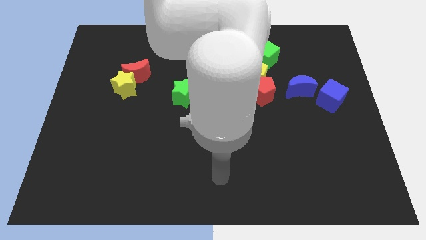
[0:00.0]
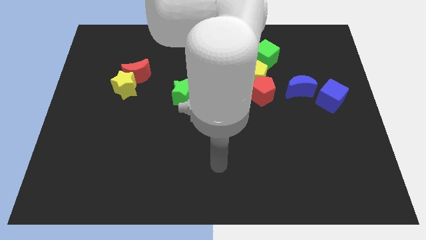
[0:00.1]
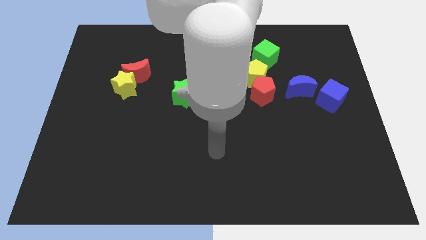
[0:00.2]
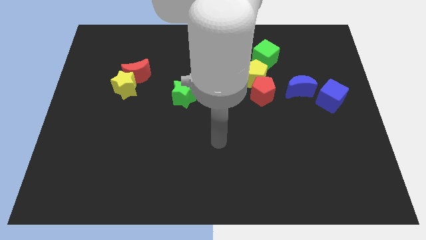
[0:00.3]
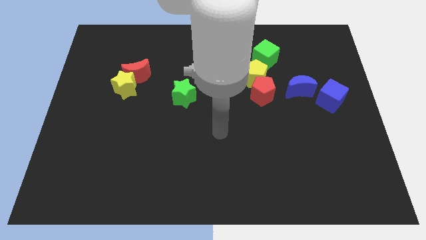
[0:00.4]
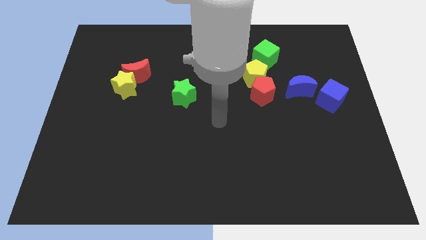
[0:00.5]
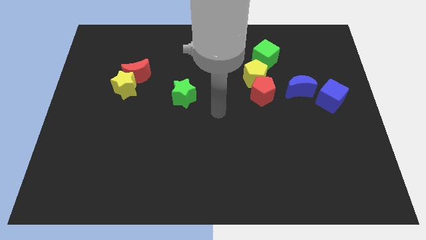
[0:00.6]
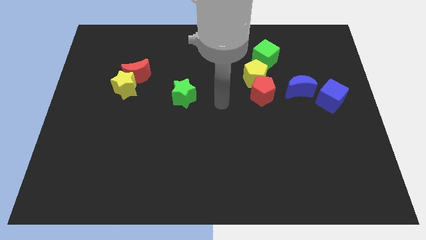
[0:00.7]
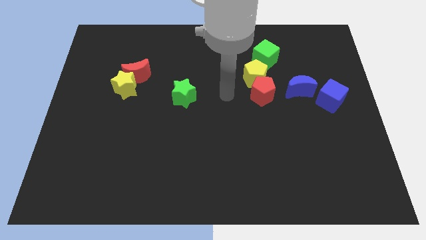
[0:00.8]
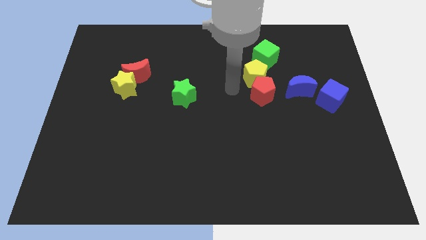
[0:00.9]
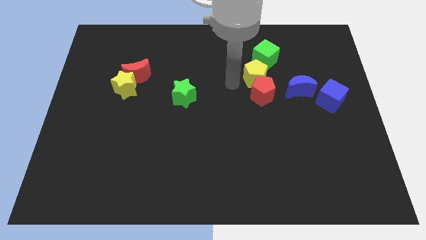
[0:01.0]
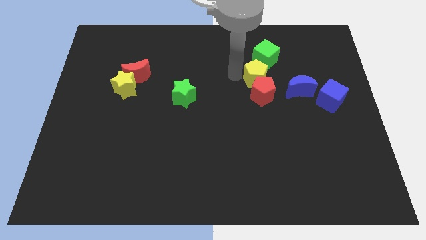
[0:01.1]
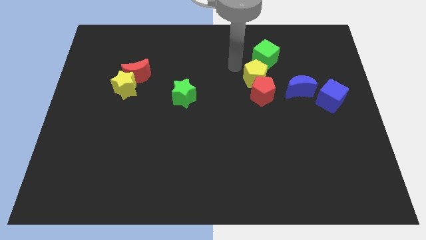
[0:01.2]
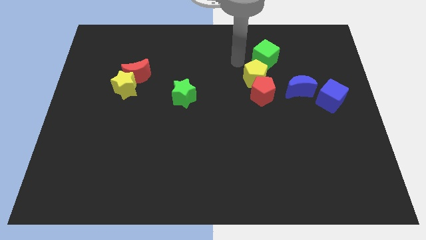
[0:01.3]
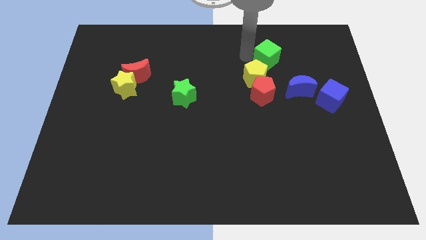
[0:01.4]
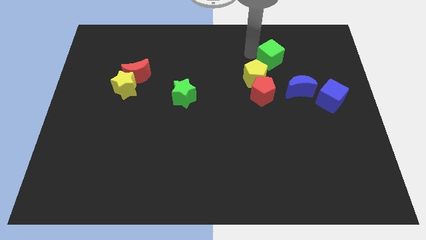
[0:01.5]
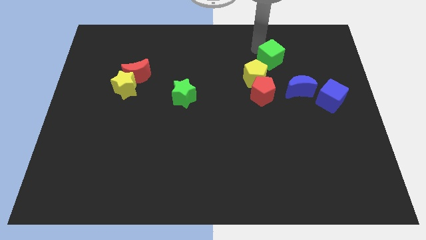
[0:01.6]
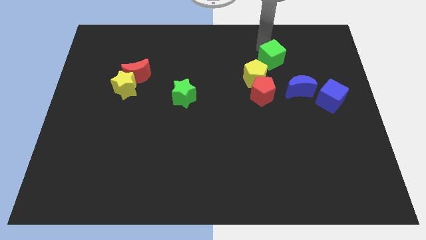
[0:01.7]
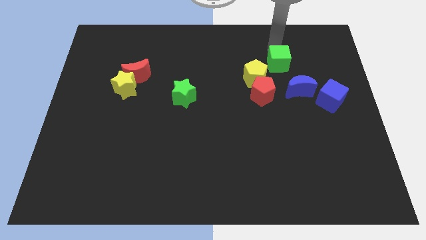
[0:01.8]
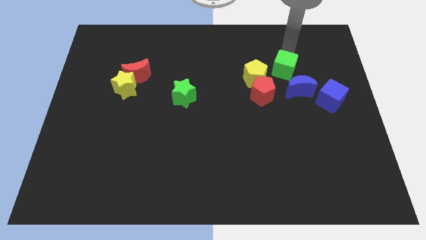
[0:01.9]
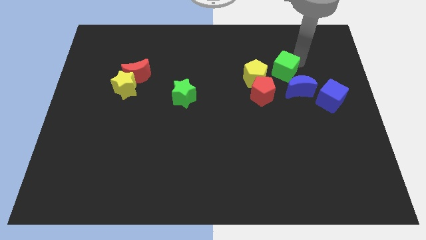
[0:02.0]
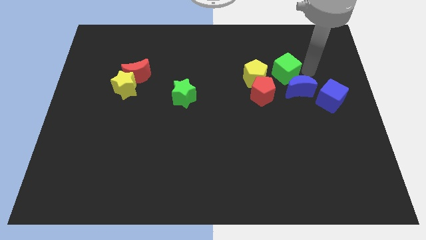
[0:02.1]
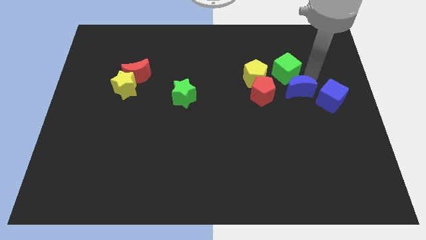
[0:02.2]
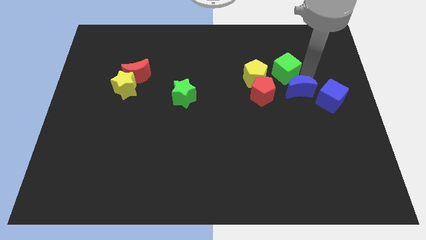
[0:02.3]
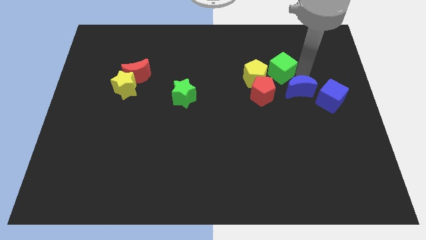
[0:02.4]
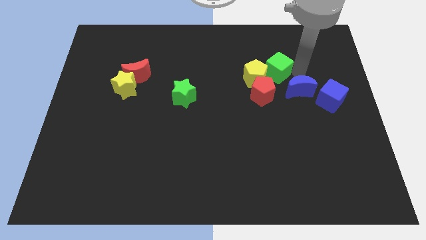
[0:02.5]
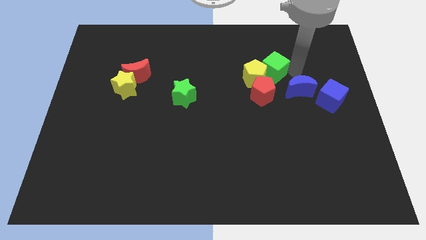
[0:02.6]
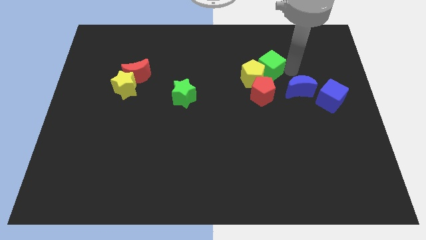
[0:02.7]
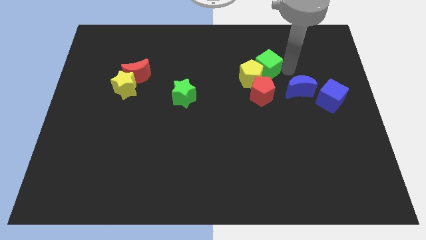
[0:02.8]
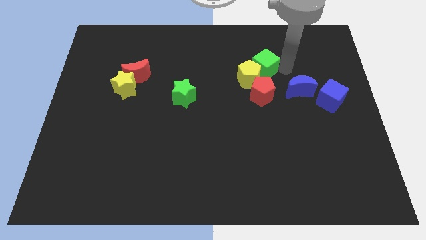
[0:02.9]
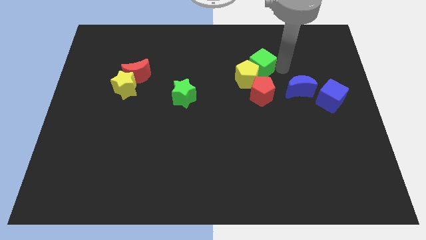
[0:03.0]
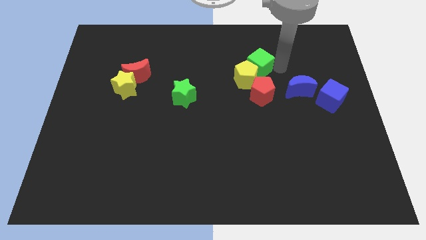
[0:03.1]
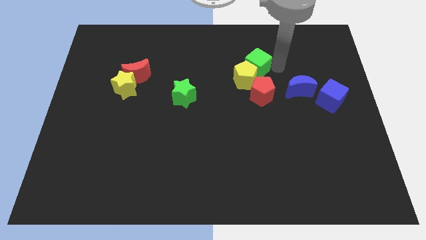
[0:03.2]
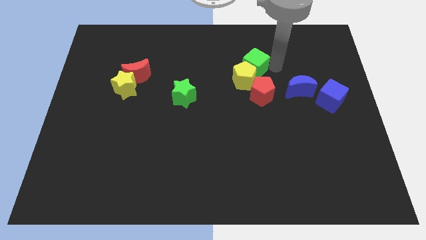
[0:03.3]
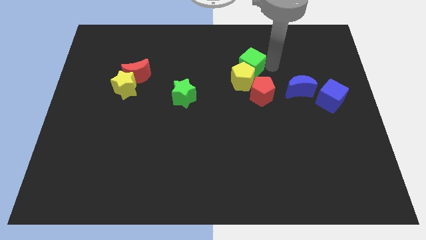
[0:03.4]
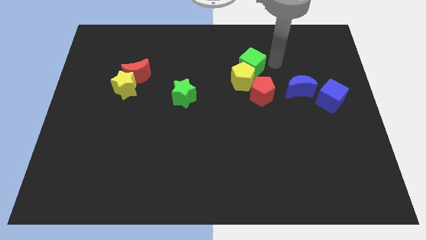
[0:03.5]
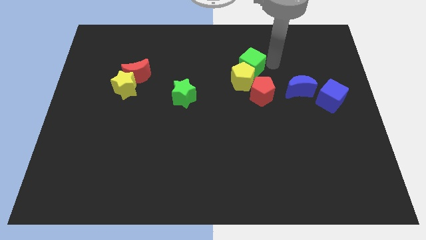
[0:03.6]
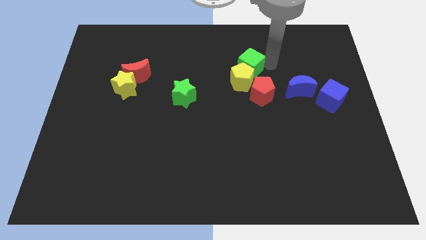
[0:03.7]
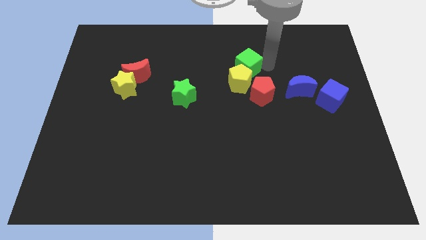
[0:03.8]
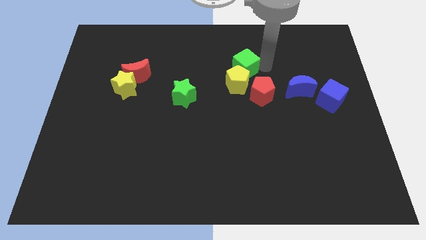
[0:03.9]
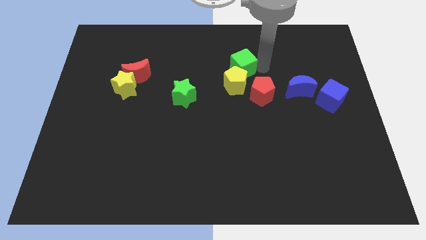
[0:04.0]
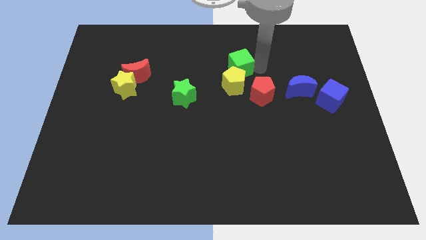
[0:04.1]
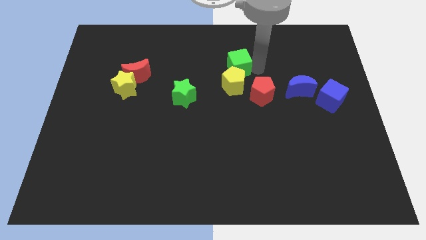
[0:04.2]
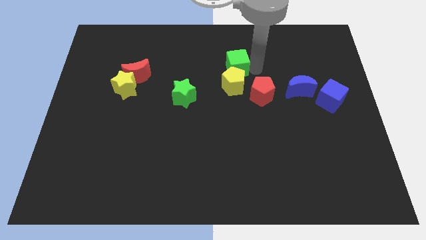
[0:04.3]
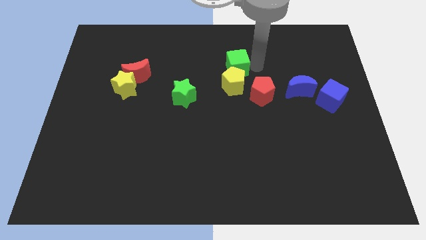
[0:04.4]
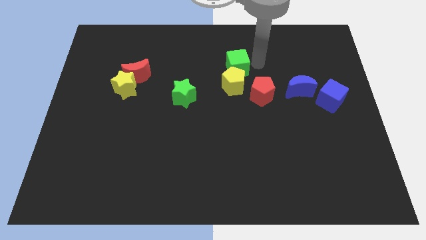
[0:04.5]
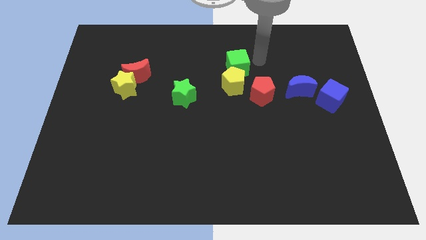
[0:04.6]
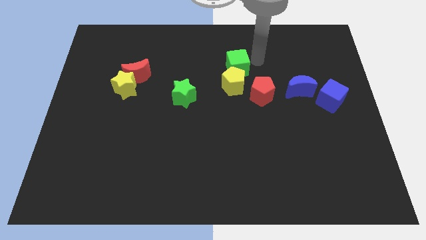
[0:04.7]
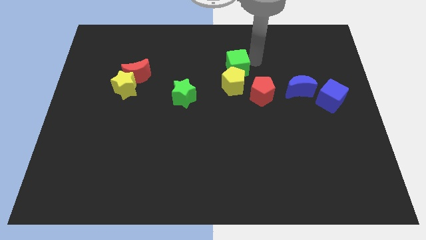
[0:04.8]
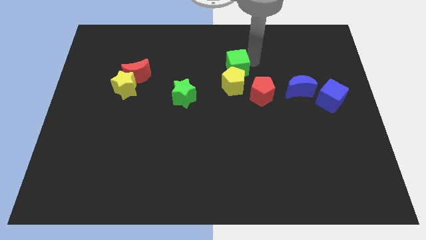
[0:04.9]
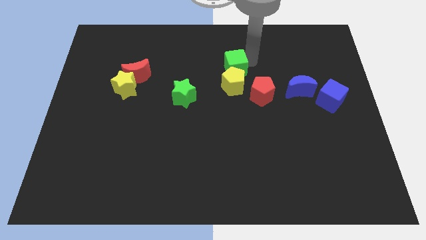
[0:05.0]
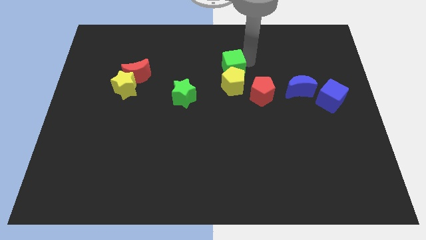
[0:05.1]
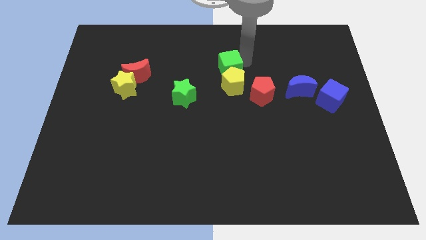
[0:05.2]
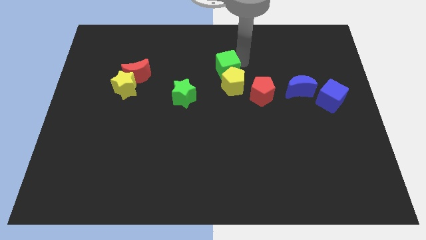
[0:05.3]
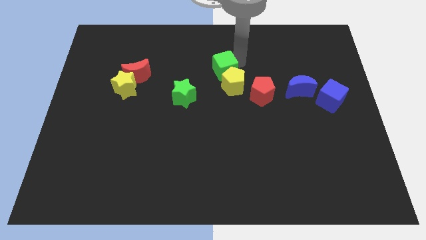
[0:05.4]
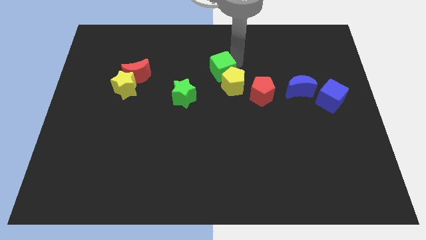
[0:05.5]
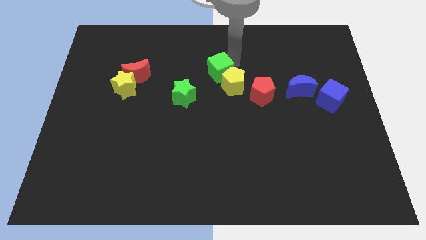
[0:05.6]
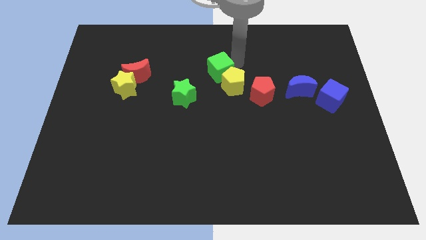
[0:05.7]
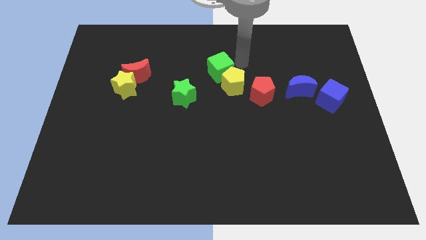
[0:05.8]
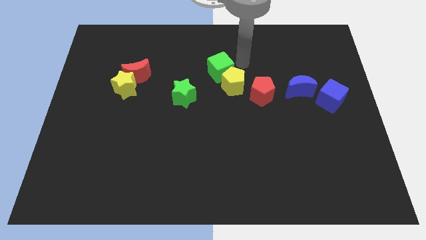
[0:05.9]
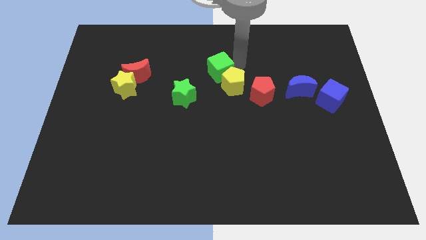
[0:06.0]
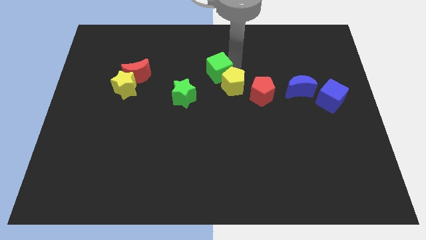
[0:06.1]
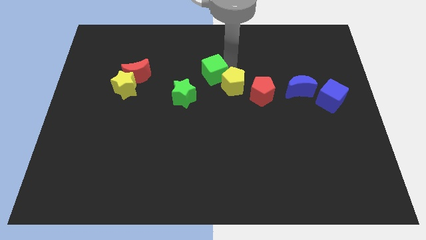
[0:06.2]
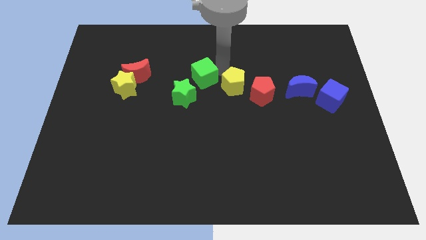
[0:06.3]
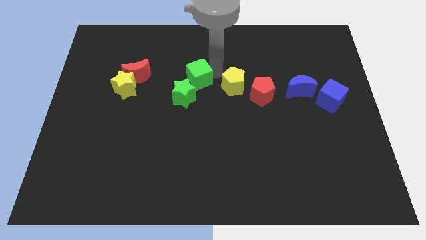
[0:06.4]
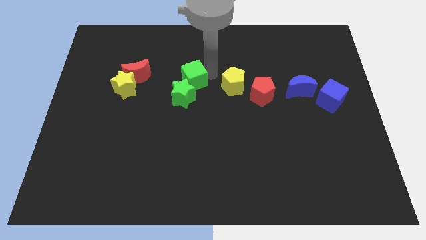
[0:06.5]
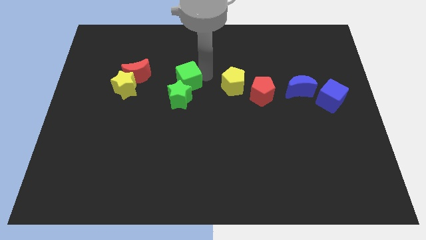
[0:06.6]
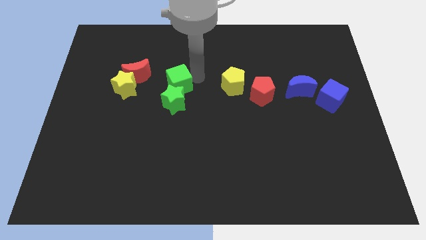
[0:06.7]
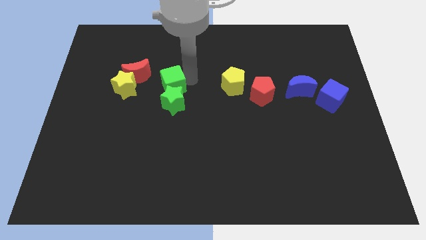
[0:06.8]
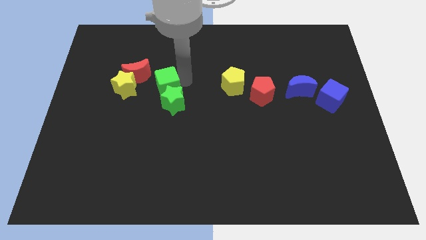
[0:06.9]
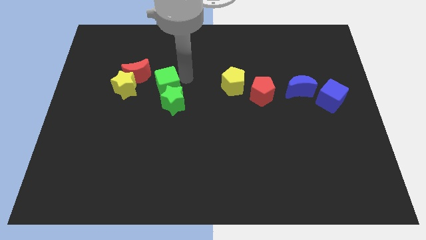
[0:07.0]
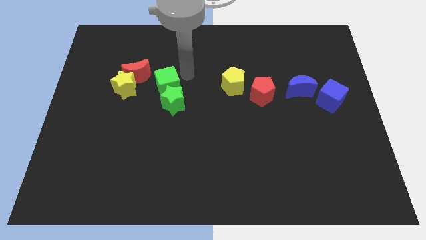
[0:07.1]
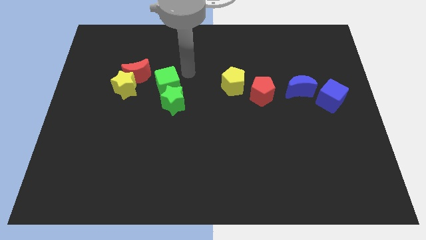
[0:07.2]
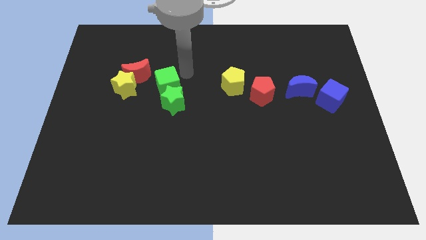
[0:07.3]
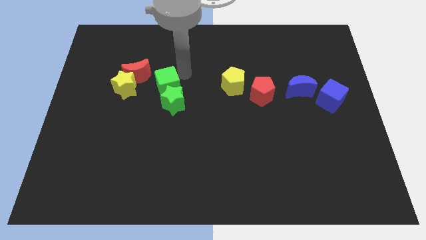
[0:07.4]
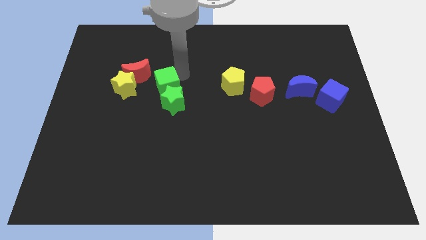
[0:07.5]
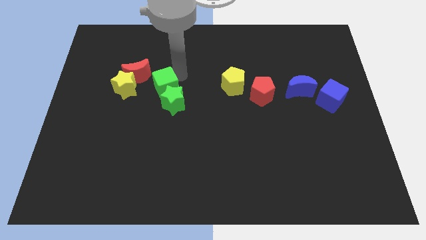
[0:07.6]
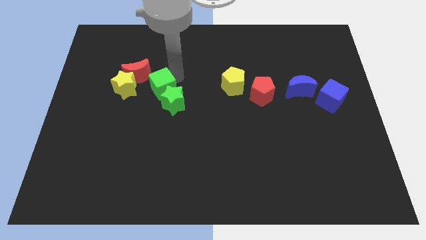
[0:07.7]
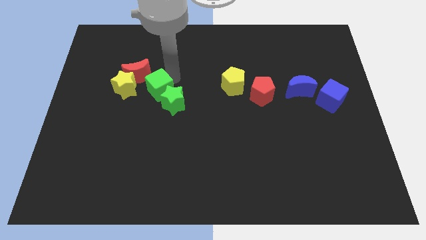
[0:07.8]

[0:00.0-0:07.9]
put the green cube left of the green star

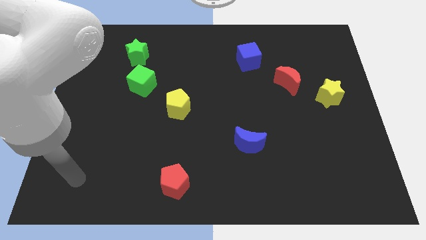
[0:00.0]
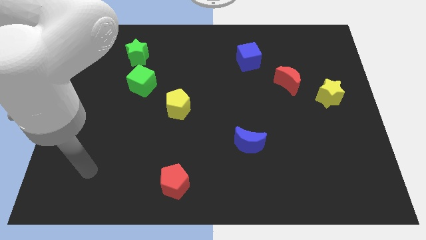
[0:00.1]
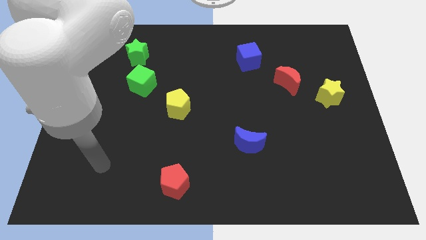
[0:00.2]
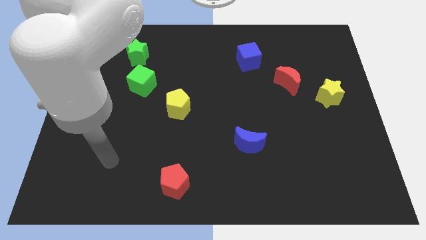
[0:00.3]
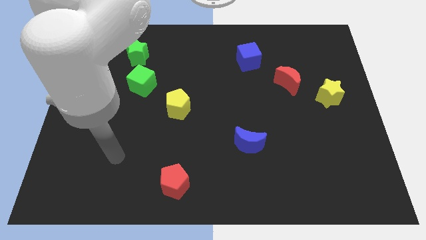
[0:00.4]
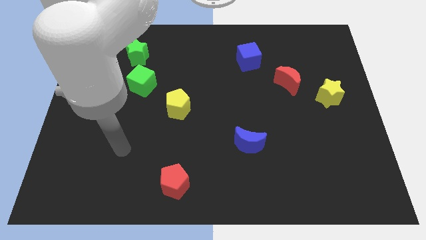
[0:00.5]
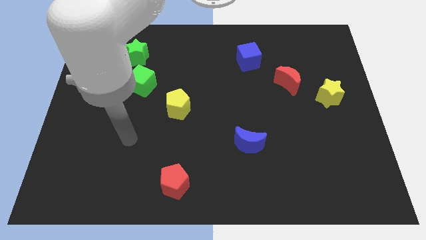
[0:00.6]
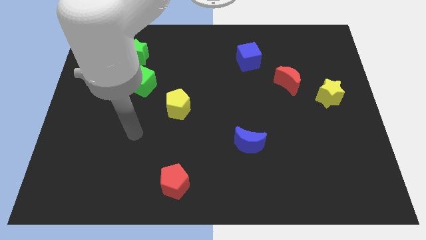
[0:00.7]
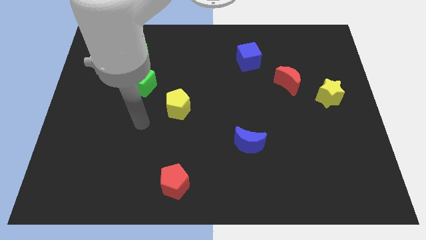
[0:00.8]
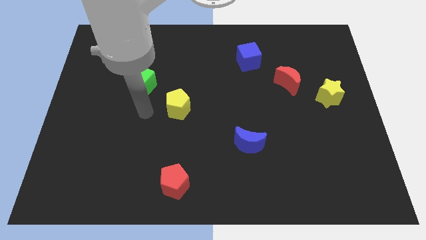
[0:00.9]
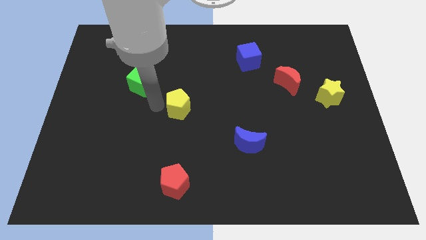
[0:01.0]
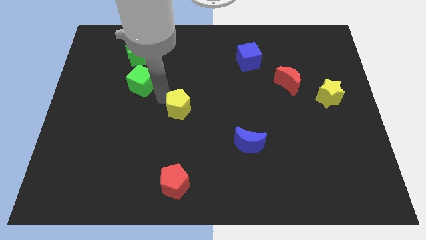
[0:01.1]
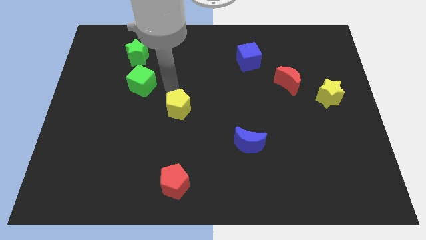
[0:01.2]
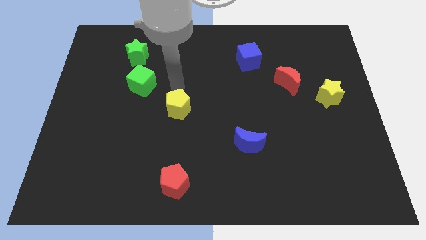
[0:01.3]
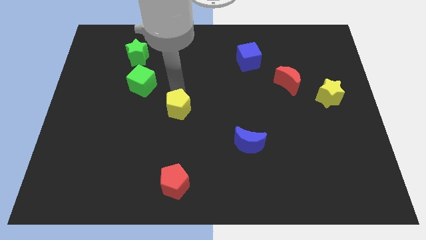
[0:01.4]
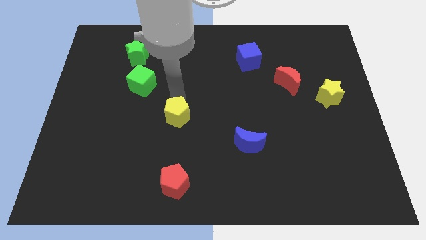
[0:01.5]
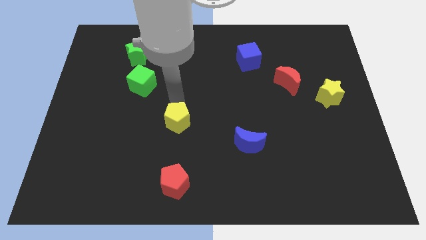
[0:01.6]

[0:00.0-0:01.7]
put the yellow pentagon above the red pentagon
